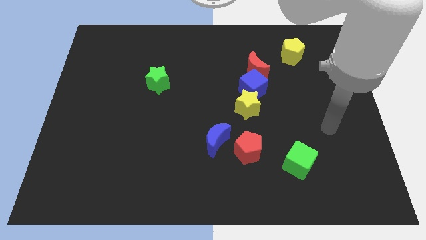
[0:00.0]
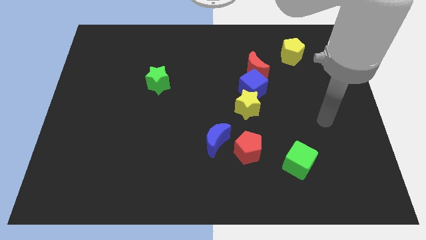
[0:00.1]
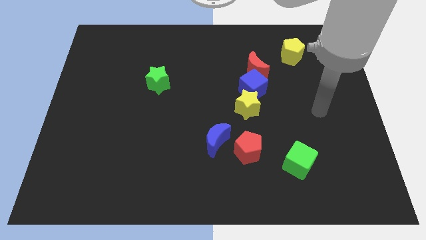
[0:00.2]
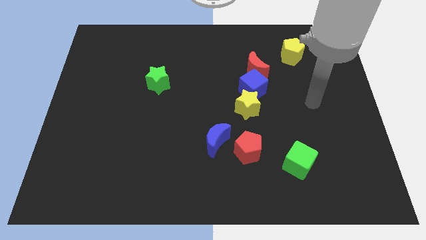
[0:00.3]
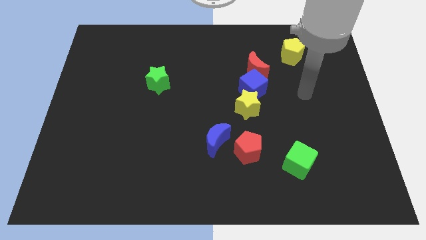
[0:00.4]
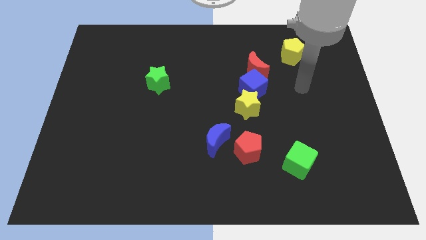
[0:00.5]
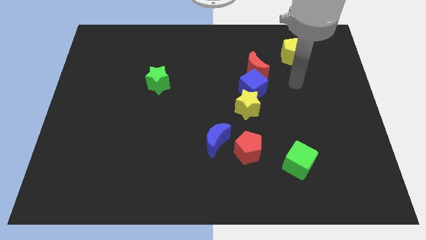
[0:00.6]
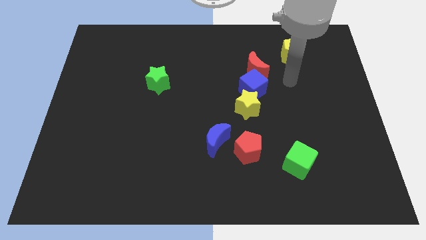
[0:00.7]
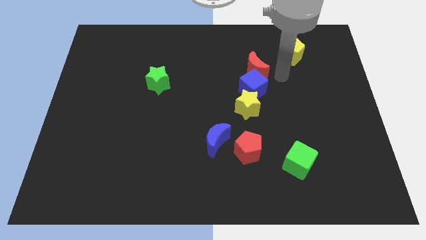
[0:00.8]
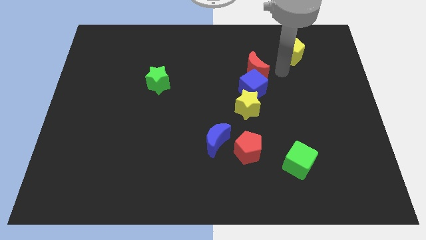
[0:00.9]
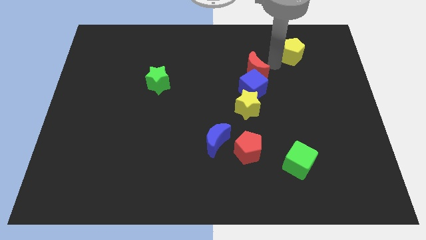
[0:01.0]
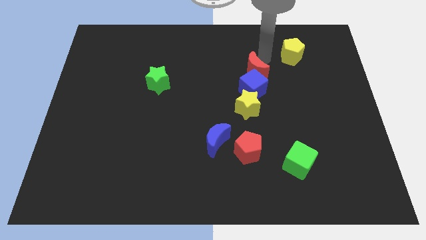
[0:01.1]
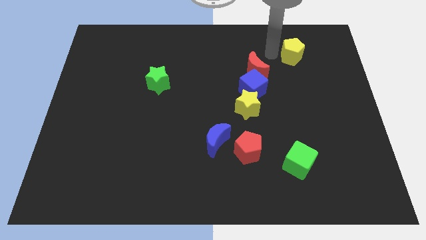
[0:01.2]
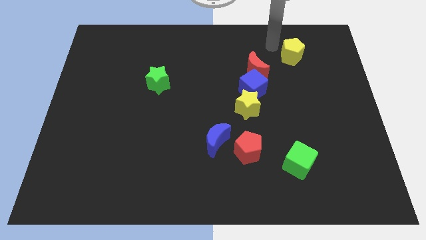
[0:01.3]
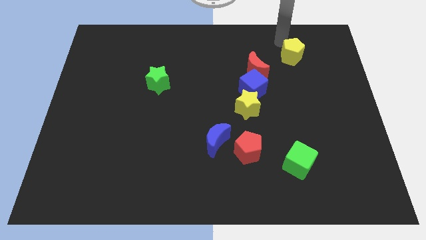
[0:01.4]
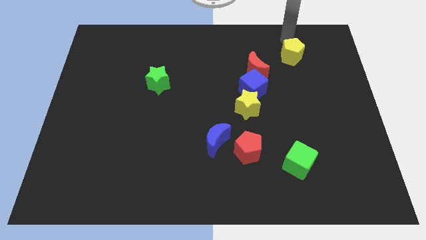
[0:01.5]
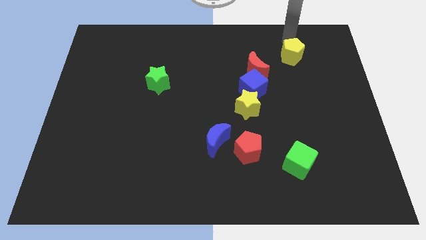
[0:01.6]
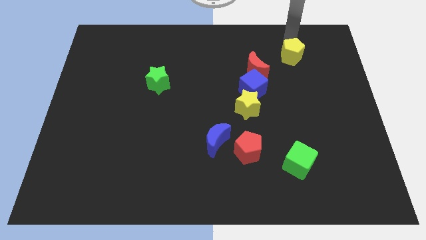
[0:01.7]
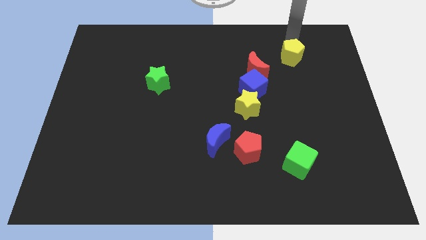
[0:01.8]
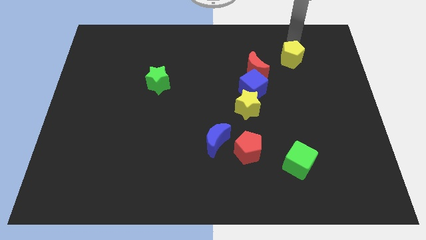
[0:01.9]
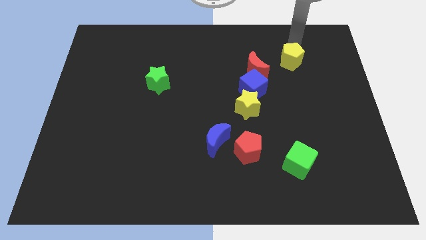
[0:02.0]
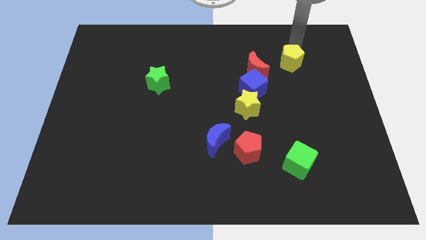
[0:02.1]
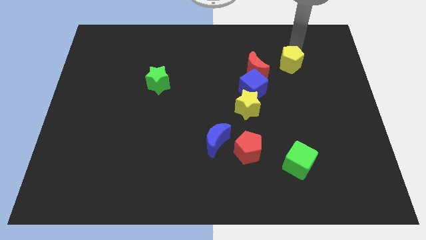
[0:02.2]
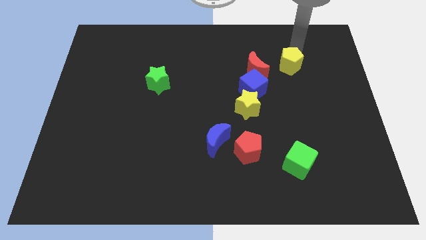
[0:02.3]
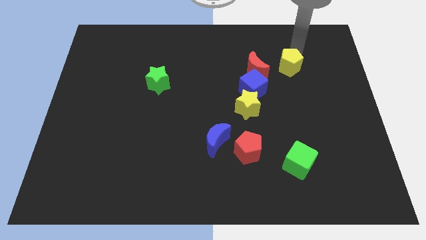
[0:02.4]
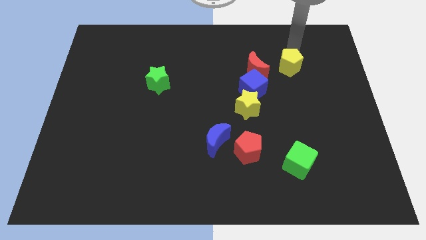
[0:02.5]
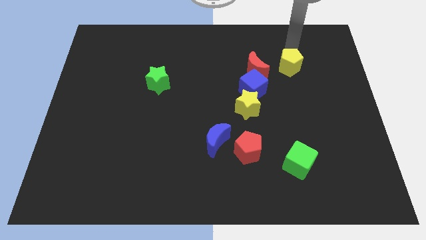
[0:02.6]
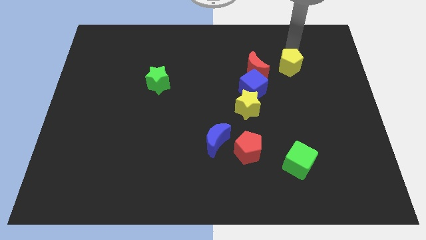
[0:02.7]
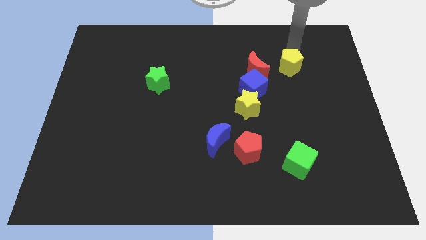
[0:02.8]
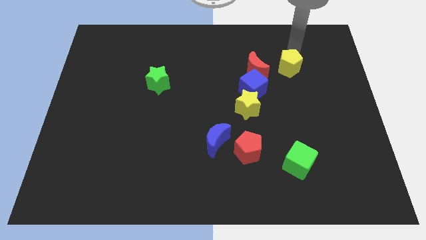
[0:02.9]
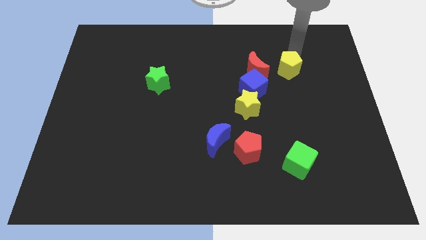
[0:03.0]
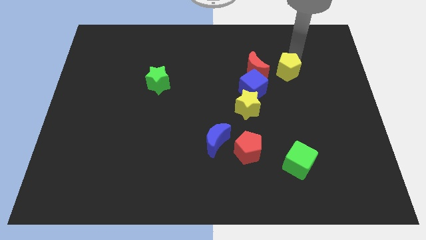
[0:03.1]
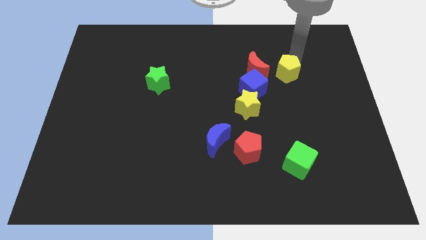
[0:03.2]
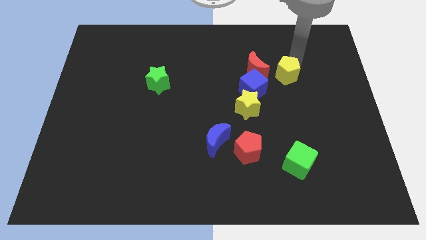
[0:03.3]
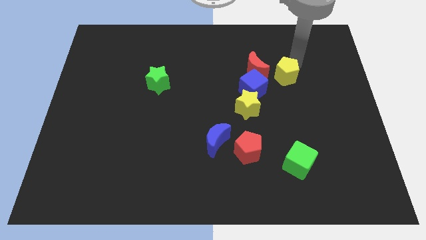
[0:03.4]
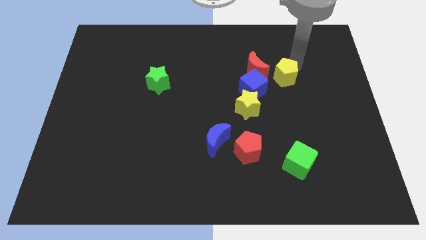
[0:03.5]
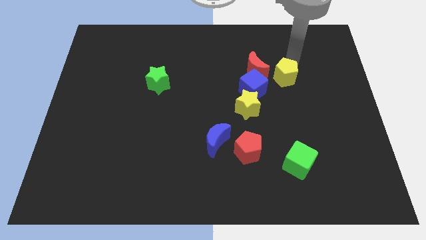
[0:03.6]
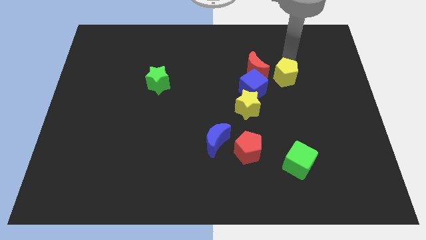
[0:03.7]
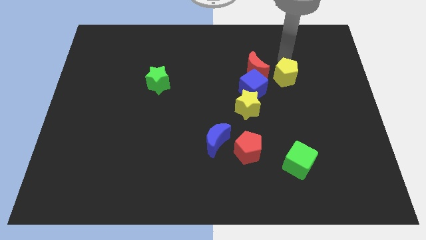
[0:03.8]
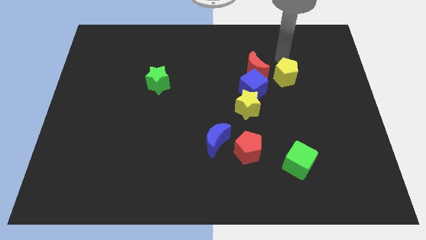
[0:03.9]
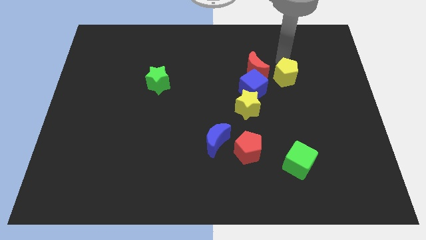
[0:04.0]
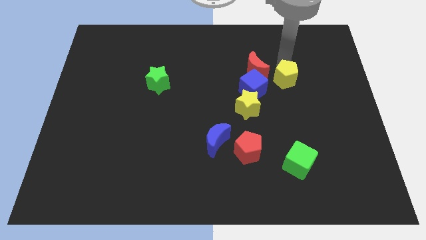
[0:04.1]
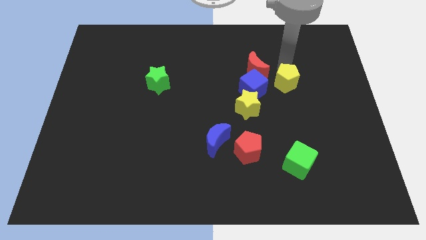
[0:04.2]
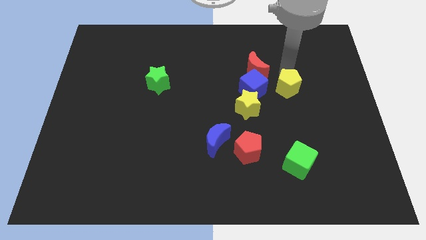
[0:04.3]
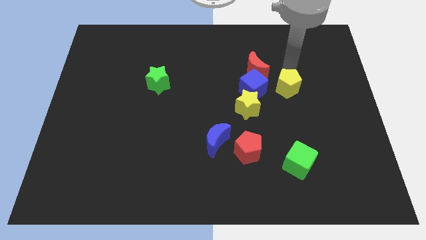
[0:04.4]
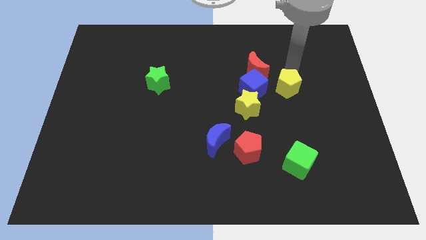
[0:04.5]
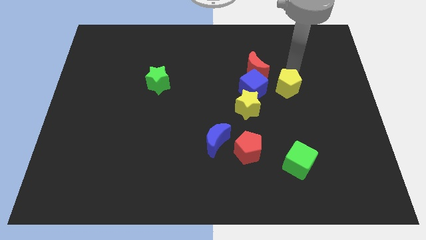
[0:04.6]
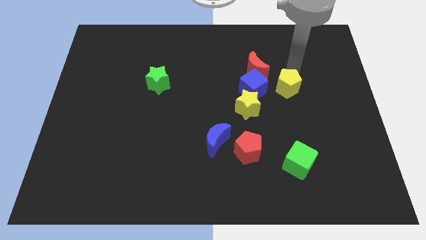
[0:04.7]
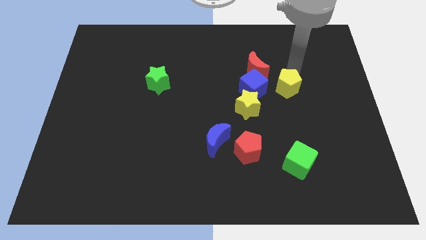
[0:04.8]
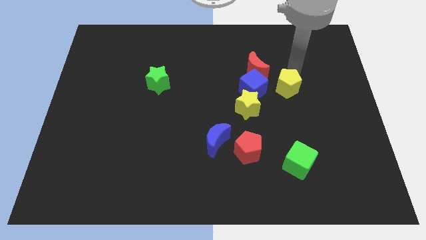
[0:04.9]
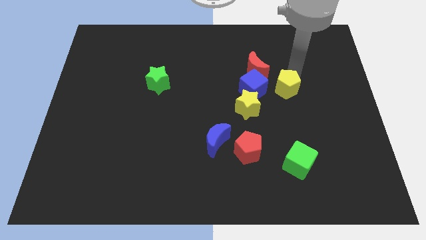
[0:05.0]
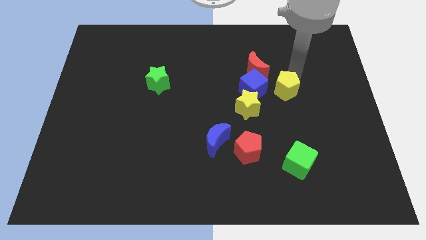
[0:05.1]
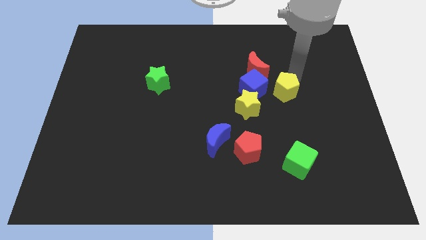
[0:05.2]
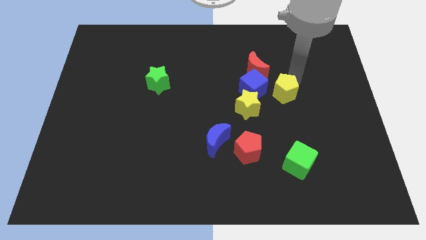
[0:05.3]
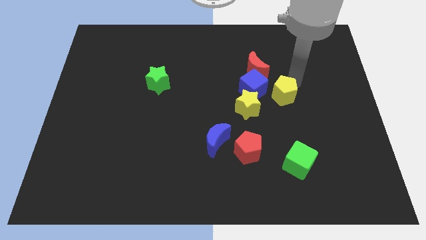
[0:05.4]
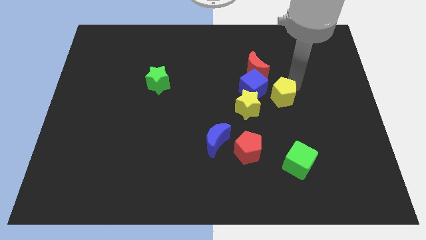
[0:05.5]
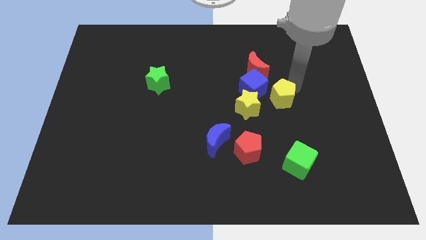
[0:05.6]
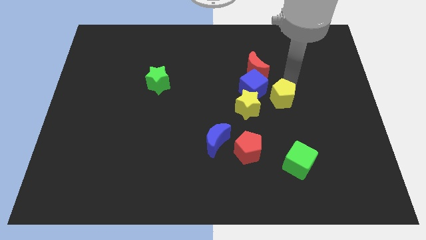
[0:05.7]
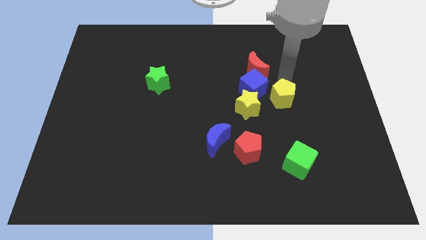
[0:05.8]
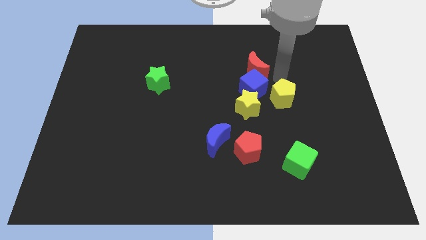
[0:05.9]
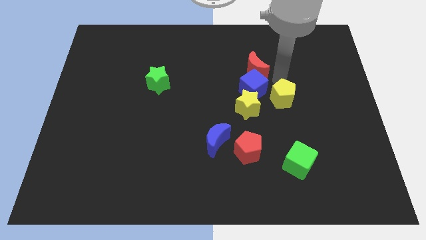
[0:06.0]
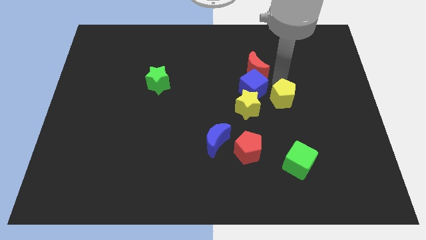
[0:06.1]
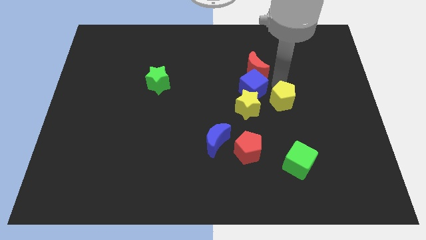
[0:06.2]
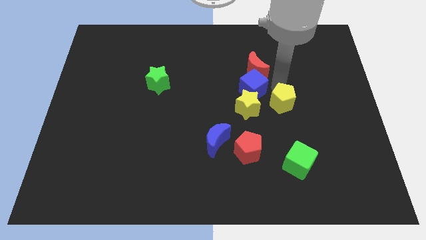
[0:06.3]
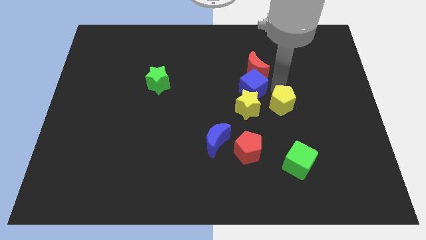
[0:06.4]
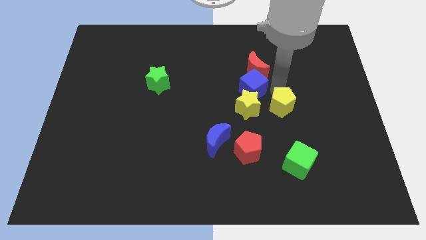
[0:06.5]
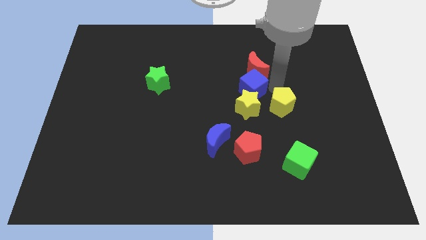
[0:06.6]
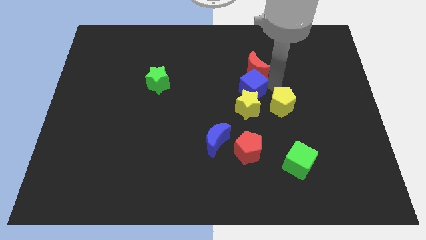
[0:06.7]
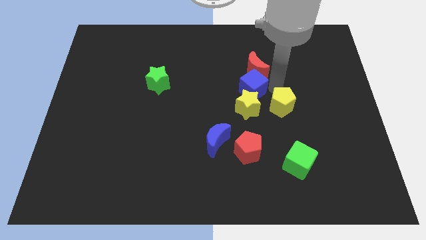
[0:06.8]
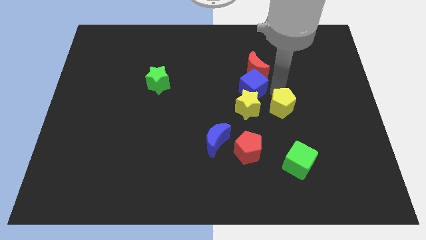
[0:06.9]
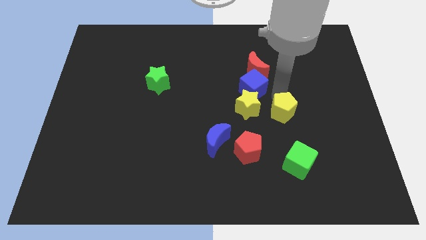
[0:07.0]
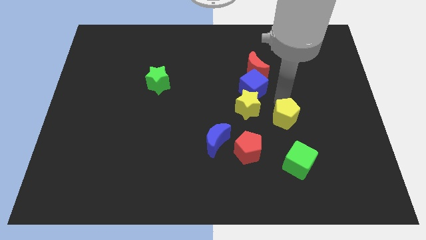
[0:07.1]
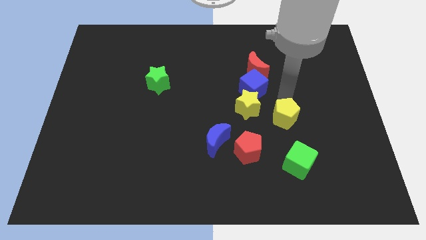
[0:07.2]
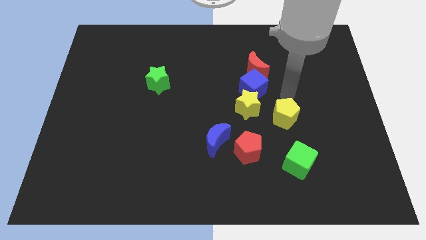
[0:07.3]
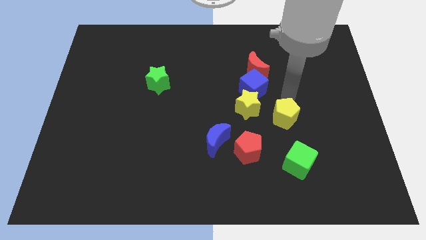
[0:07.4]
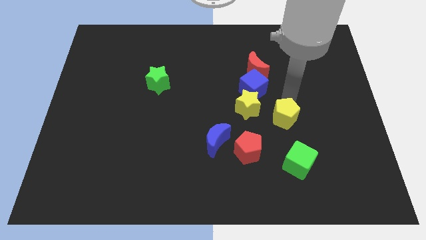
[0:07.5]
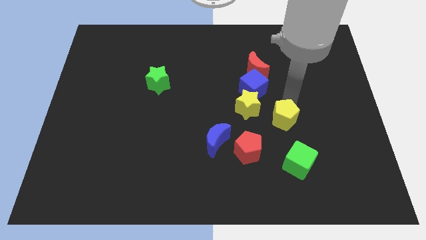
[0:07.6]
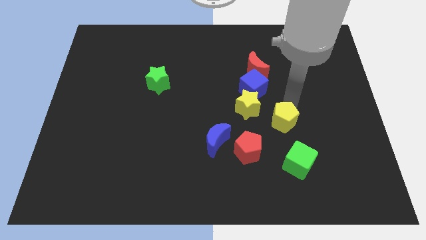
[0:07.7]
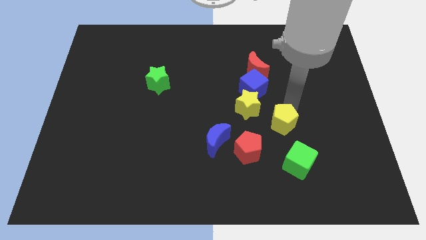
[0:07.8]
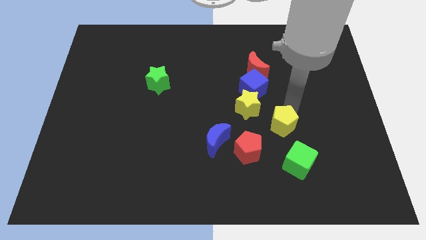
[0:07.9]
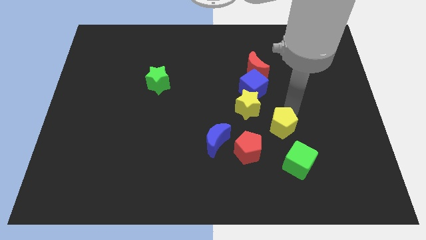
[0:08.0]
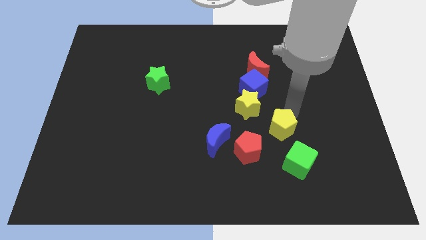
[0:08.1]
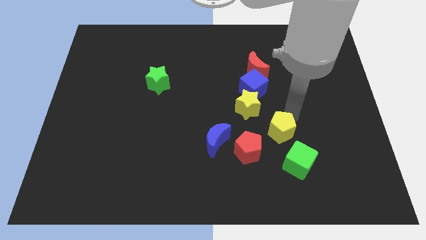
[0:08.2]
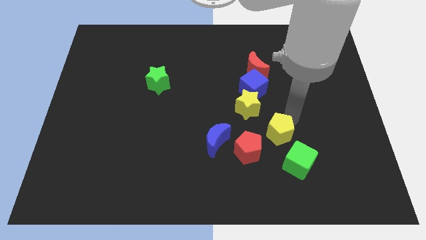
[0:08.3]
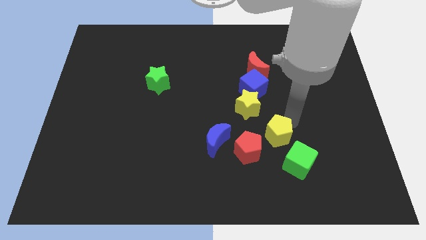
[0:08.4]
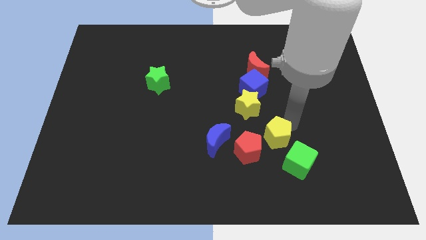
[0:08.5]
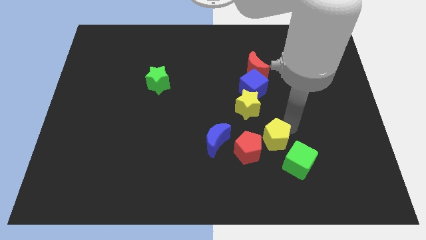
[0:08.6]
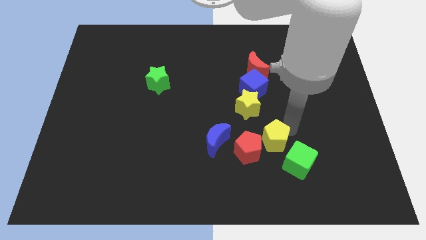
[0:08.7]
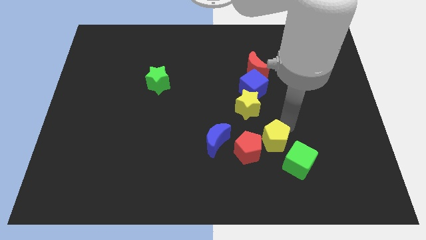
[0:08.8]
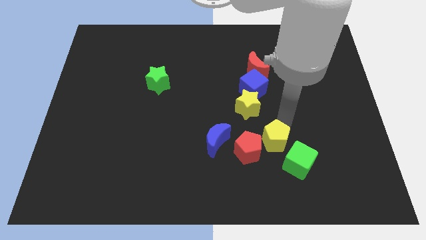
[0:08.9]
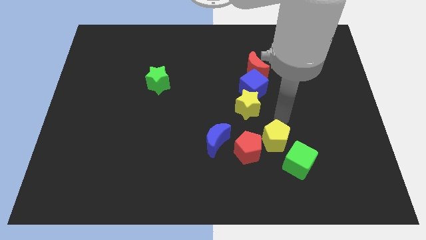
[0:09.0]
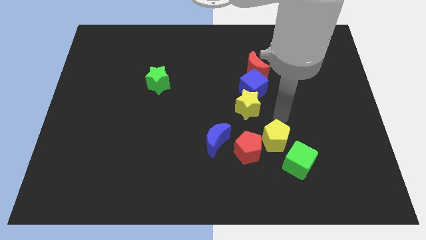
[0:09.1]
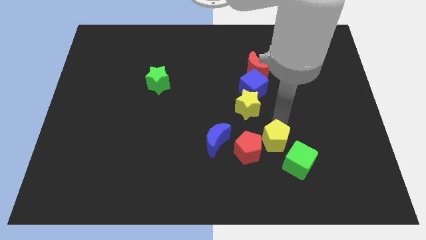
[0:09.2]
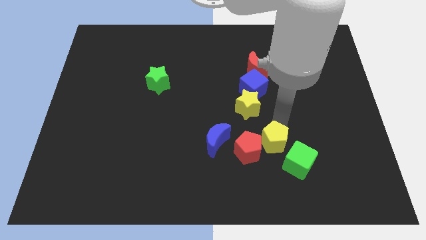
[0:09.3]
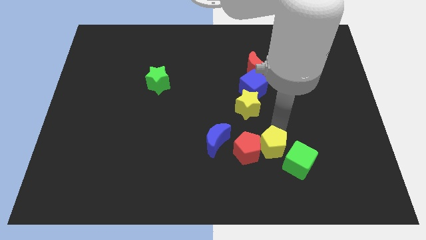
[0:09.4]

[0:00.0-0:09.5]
put the yellow pentagon to the bottom side of the yellow star
